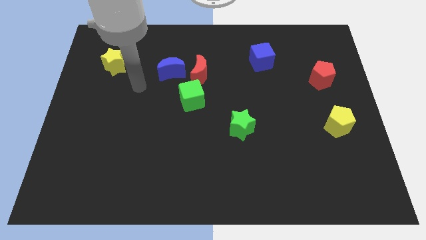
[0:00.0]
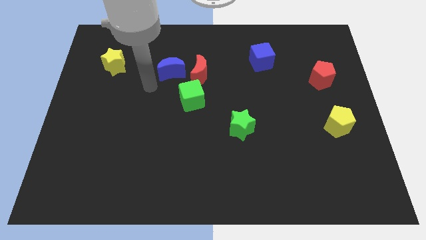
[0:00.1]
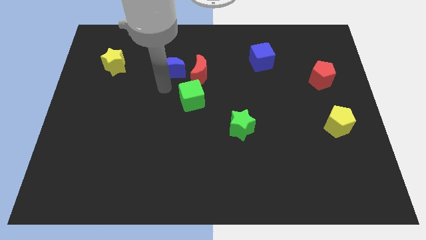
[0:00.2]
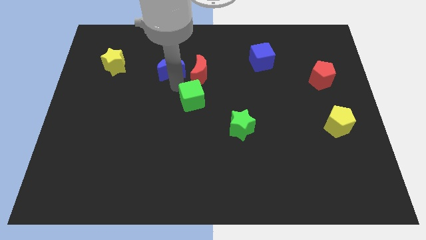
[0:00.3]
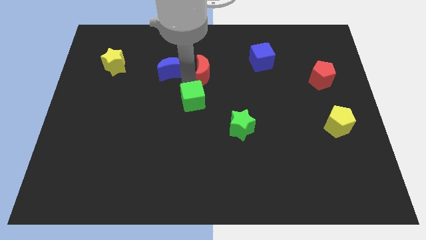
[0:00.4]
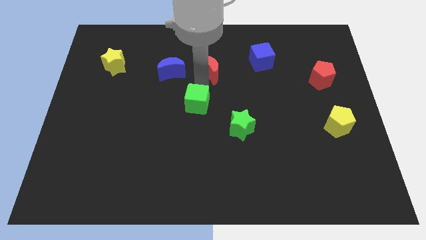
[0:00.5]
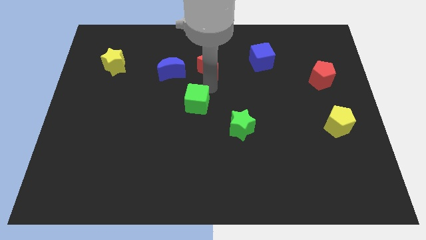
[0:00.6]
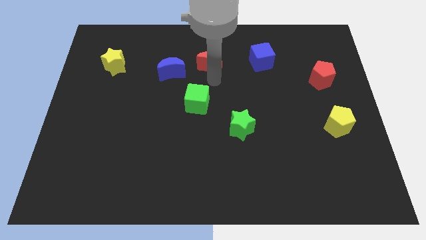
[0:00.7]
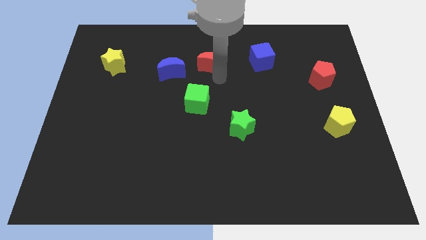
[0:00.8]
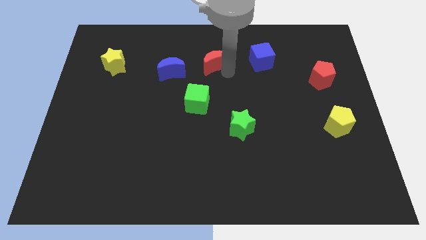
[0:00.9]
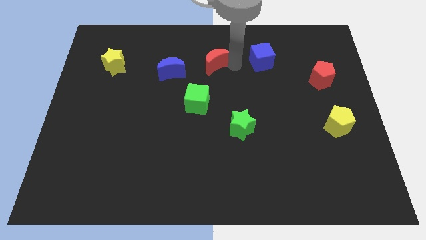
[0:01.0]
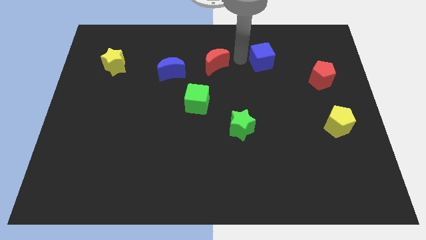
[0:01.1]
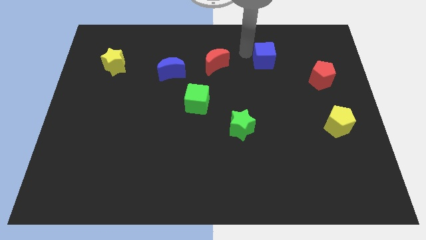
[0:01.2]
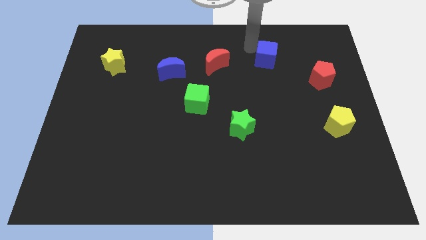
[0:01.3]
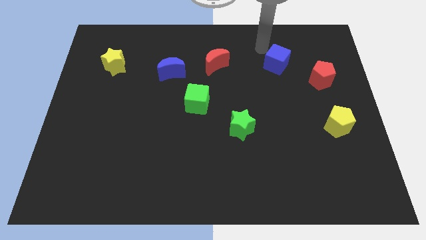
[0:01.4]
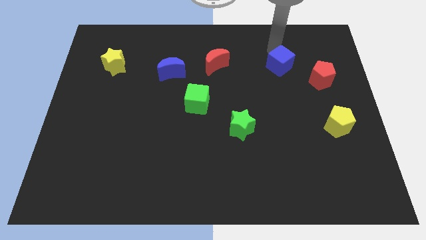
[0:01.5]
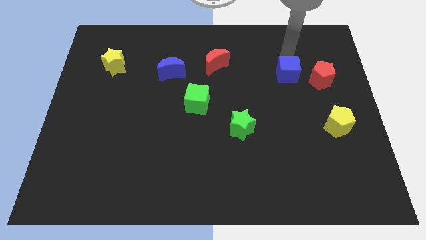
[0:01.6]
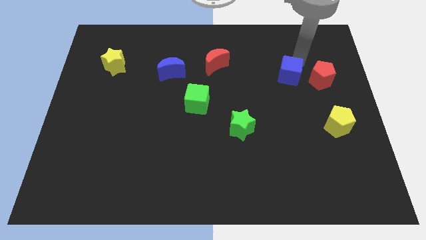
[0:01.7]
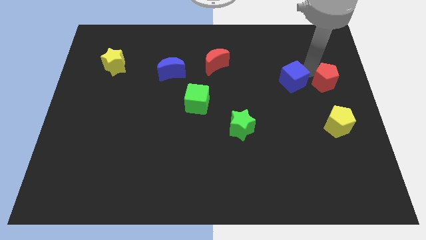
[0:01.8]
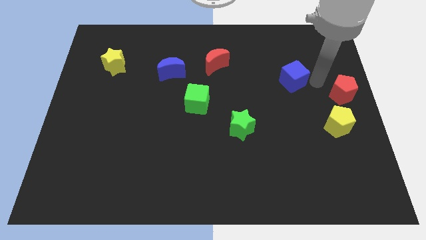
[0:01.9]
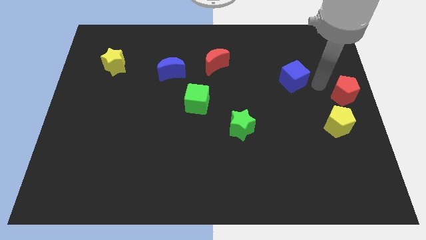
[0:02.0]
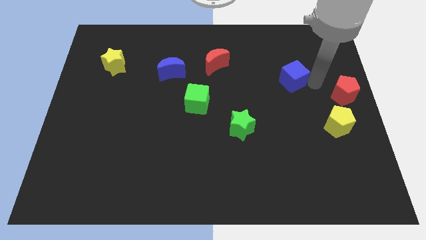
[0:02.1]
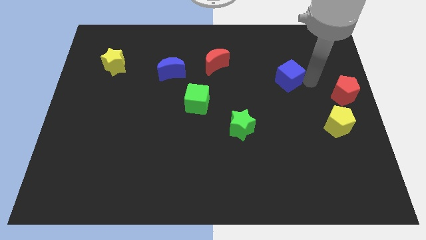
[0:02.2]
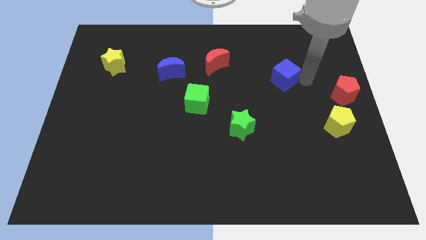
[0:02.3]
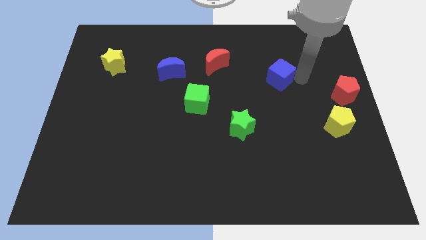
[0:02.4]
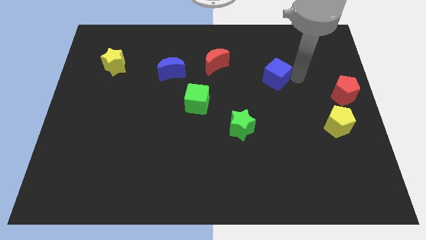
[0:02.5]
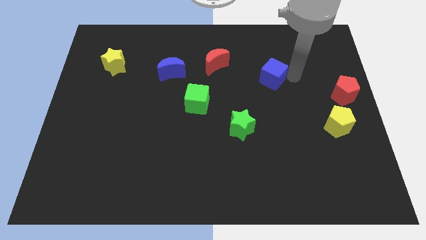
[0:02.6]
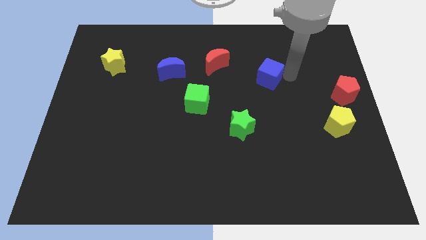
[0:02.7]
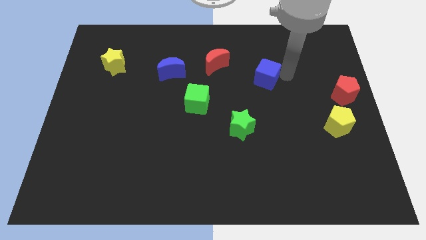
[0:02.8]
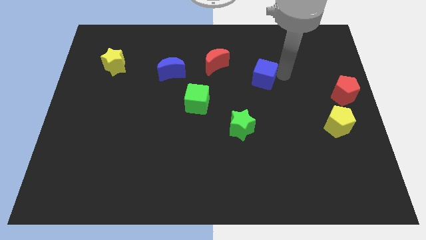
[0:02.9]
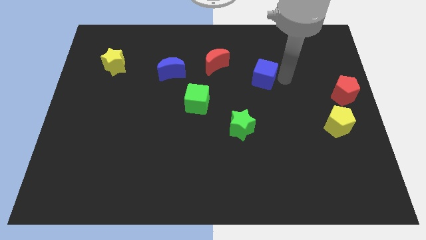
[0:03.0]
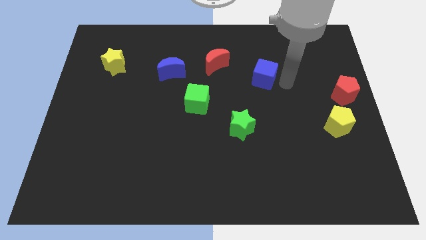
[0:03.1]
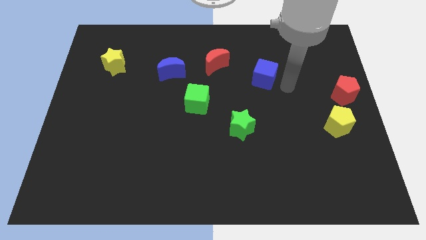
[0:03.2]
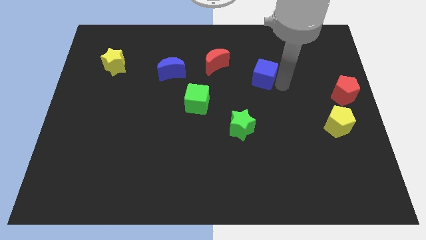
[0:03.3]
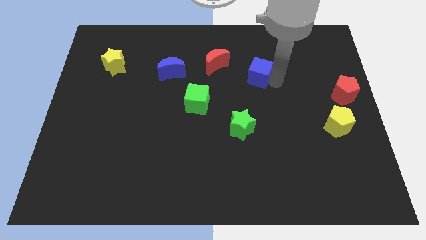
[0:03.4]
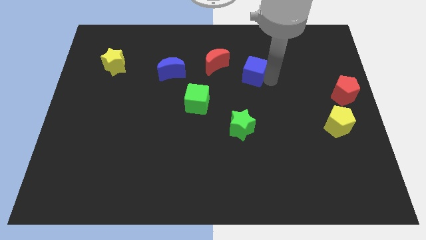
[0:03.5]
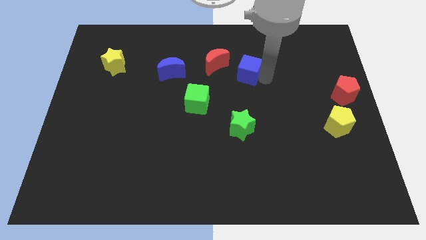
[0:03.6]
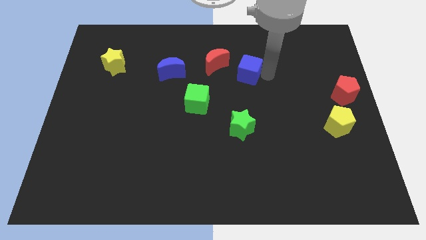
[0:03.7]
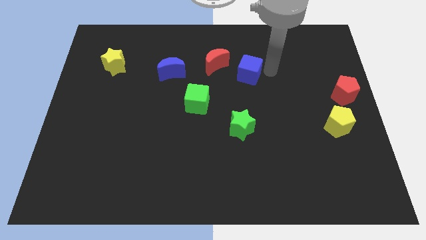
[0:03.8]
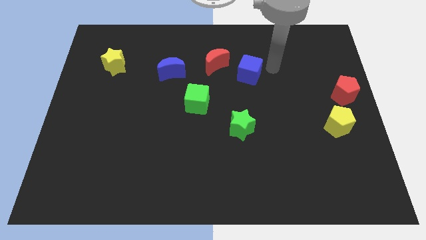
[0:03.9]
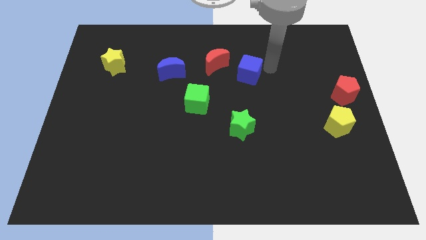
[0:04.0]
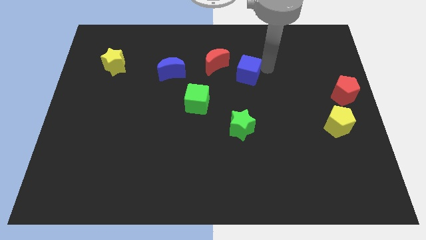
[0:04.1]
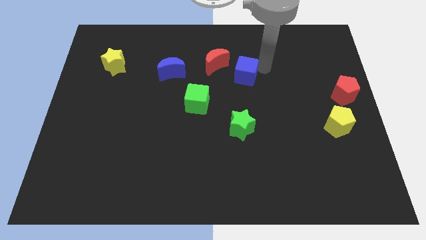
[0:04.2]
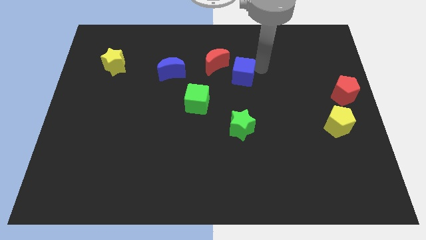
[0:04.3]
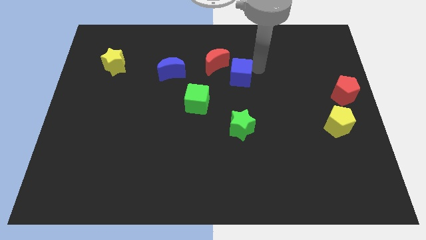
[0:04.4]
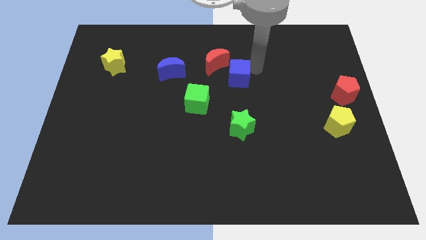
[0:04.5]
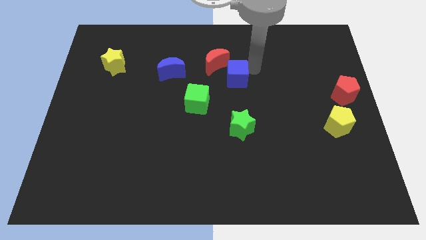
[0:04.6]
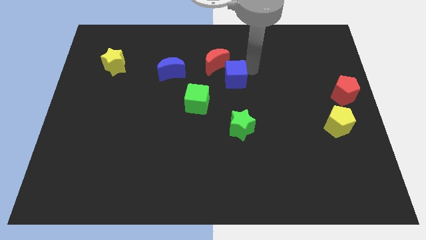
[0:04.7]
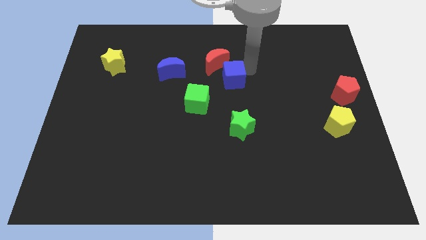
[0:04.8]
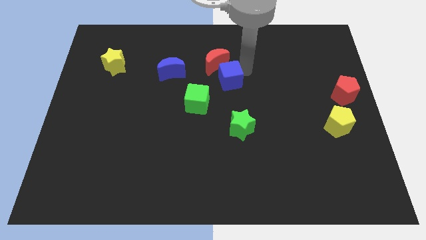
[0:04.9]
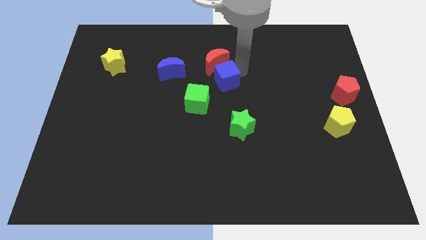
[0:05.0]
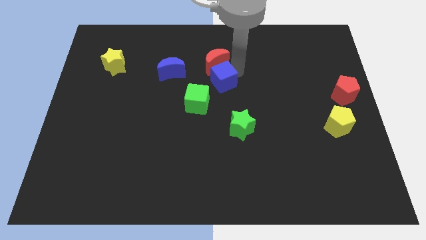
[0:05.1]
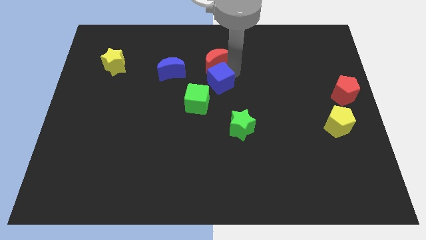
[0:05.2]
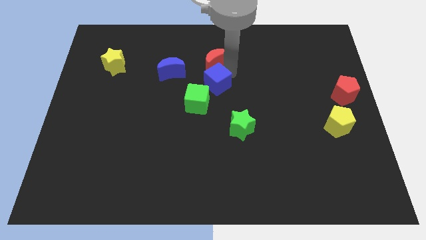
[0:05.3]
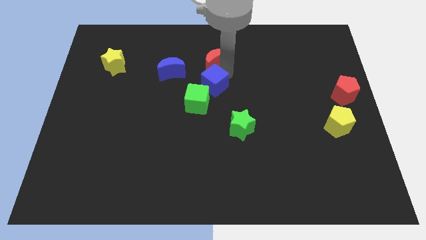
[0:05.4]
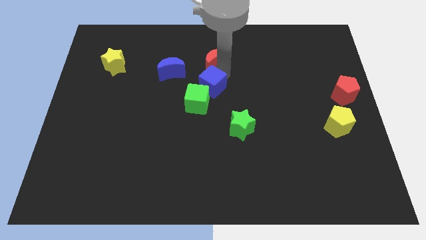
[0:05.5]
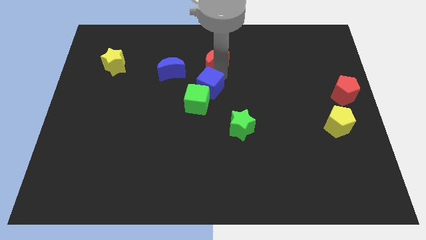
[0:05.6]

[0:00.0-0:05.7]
put the blue cube next to the green cube

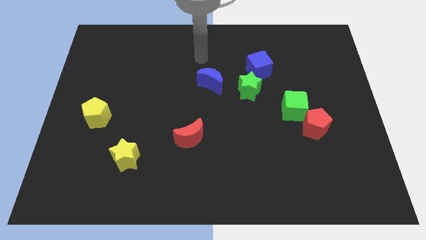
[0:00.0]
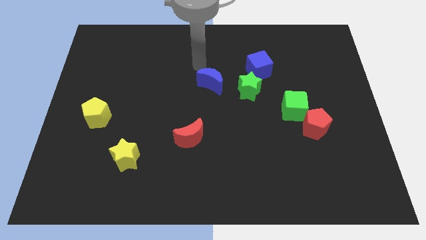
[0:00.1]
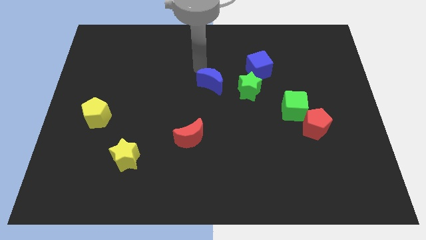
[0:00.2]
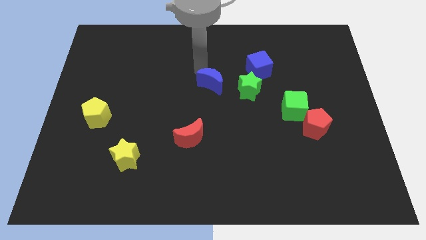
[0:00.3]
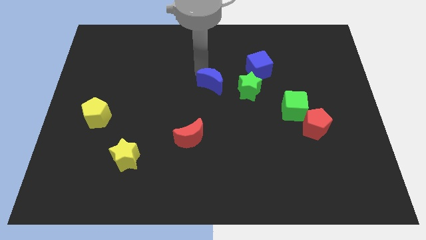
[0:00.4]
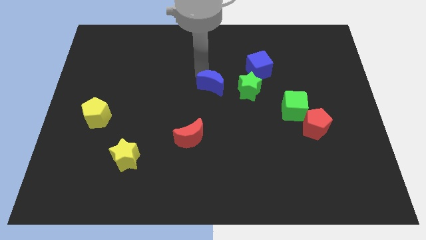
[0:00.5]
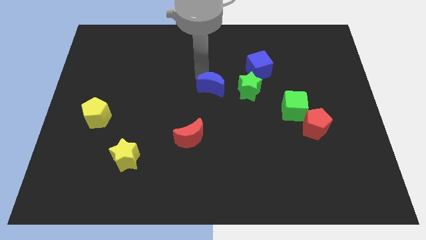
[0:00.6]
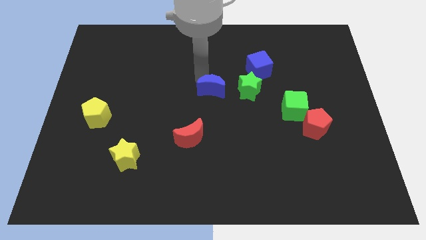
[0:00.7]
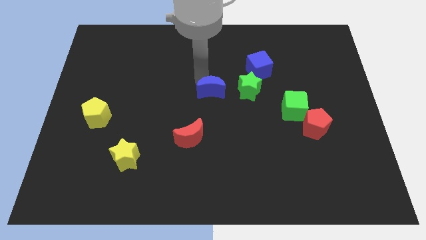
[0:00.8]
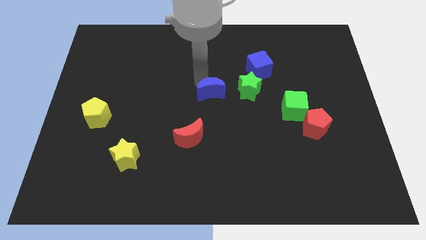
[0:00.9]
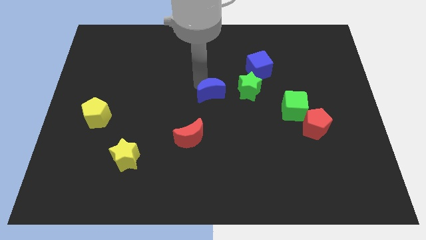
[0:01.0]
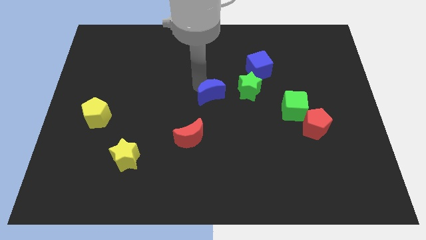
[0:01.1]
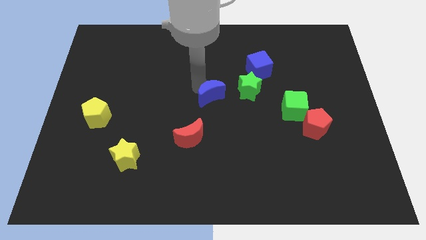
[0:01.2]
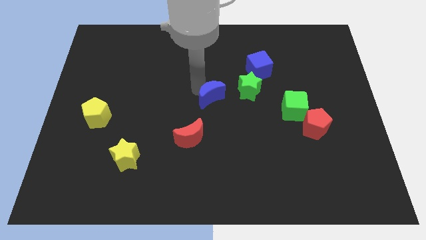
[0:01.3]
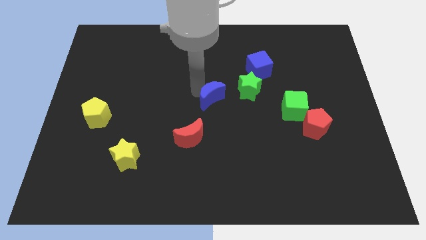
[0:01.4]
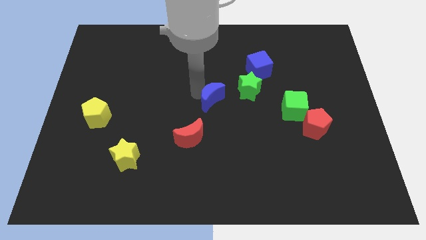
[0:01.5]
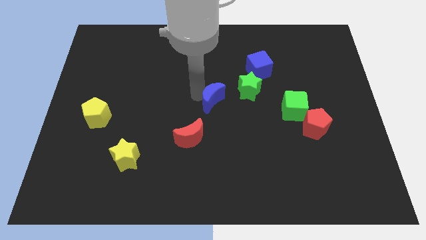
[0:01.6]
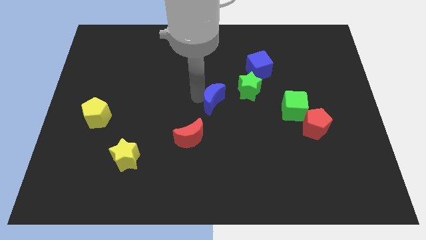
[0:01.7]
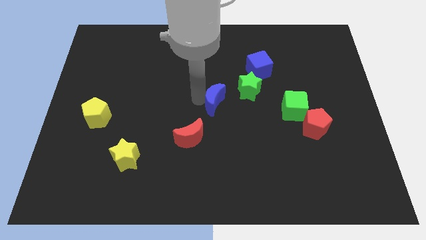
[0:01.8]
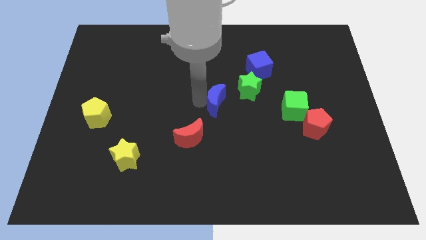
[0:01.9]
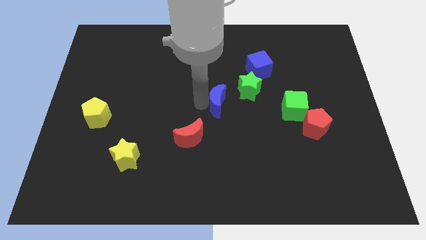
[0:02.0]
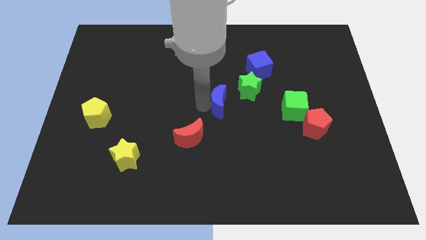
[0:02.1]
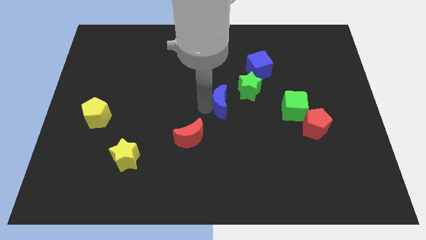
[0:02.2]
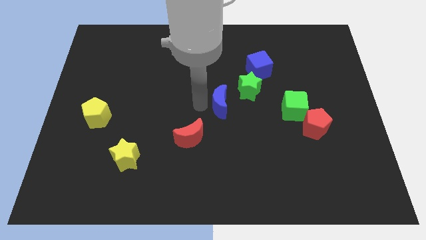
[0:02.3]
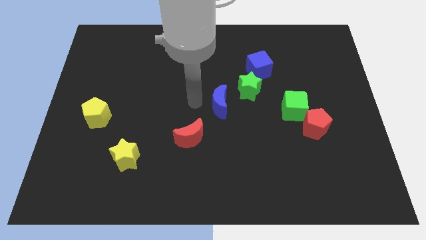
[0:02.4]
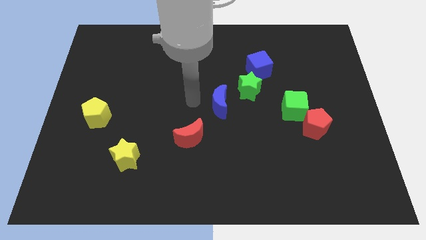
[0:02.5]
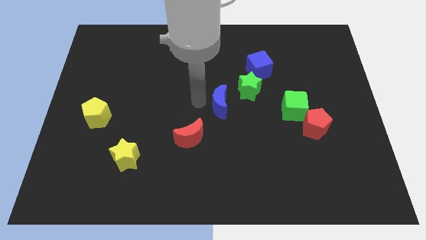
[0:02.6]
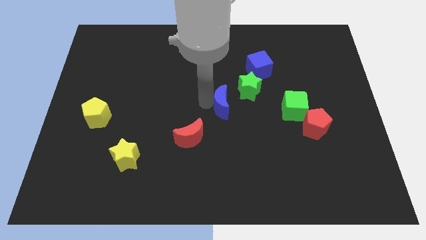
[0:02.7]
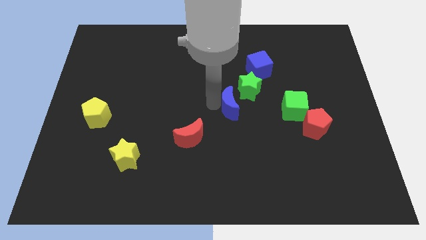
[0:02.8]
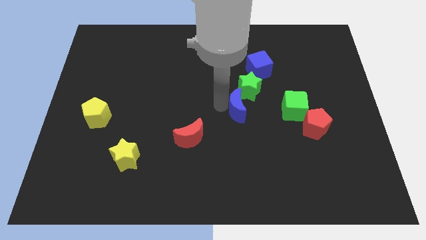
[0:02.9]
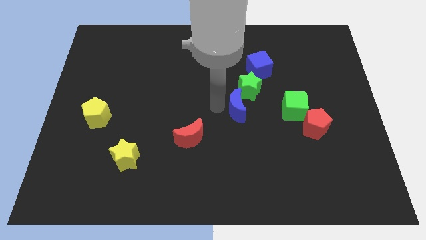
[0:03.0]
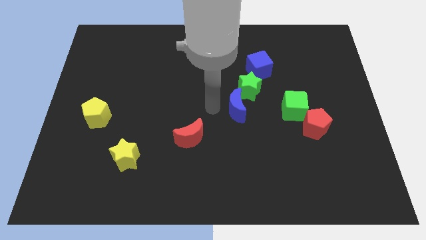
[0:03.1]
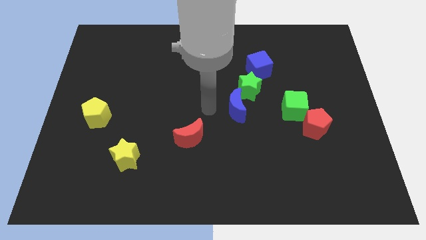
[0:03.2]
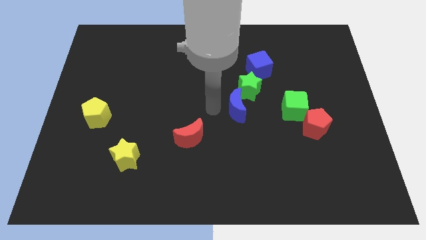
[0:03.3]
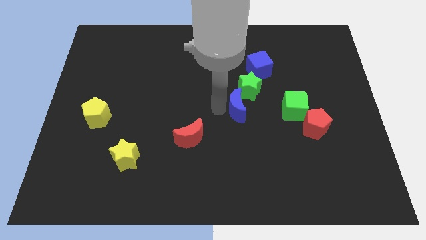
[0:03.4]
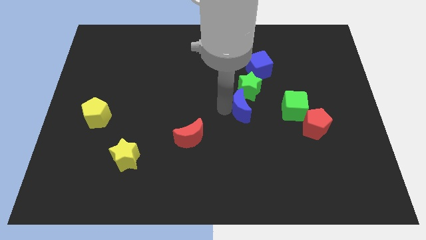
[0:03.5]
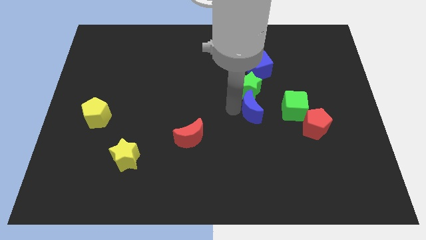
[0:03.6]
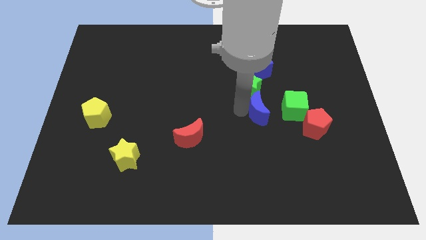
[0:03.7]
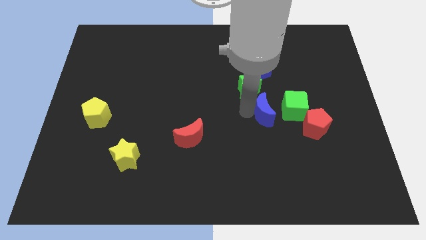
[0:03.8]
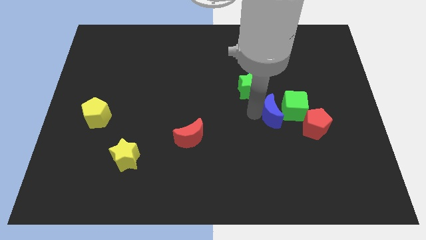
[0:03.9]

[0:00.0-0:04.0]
push the blue moon close to the green cube
